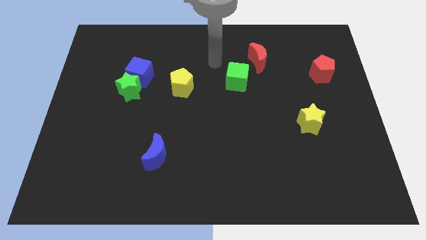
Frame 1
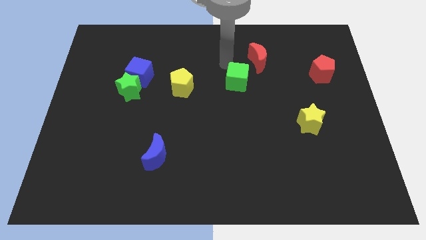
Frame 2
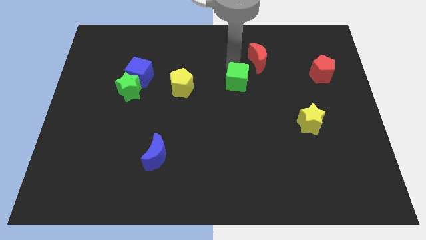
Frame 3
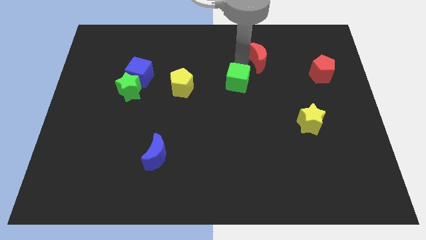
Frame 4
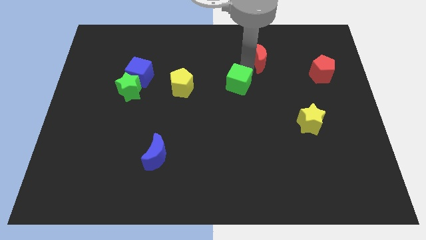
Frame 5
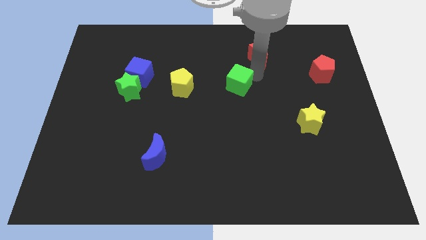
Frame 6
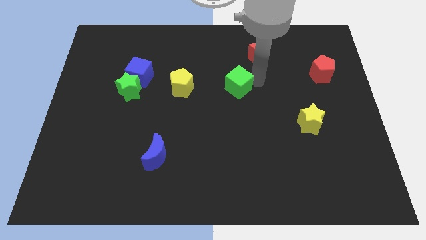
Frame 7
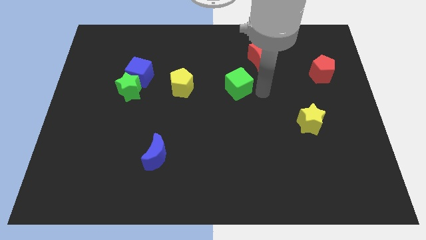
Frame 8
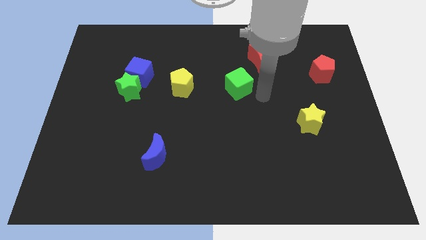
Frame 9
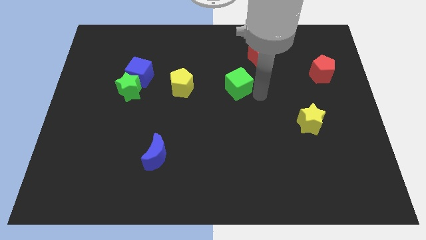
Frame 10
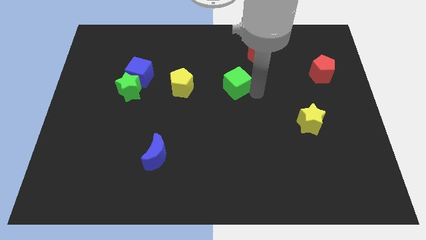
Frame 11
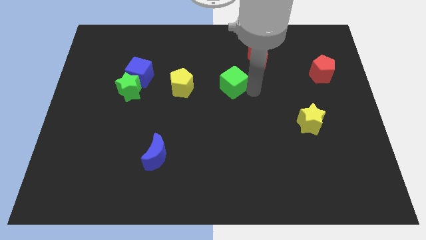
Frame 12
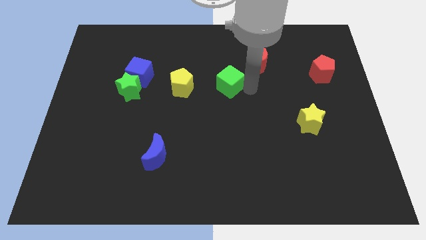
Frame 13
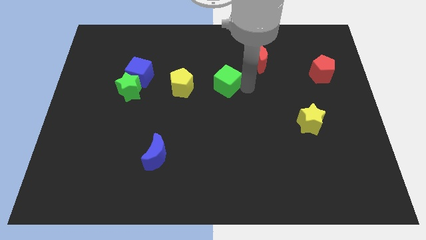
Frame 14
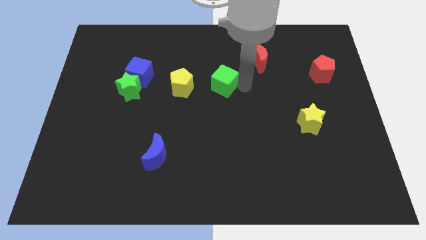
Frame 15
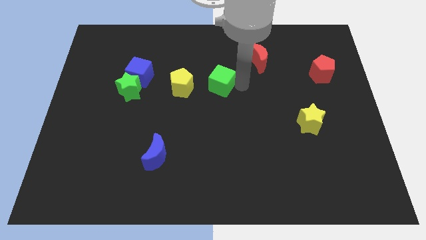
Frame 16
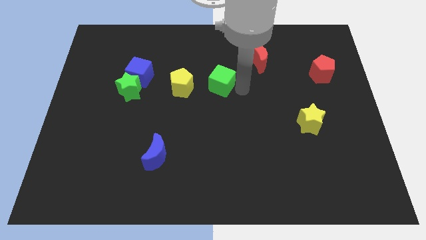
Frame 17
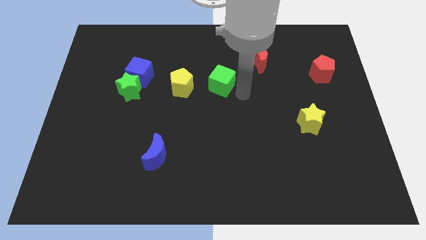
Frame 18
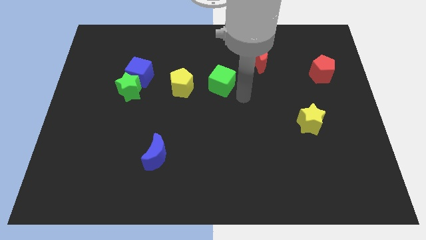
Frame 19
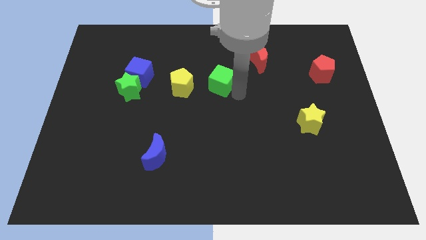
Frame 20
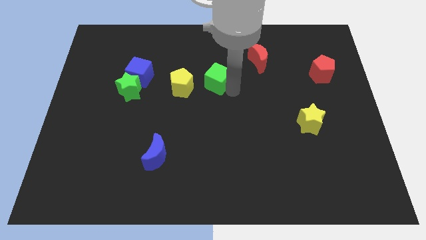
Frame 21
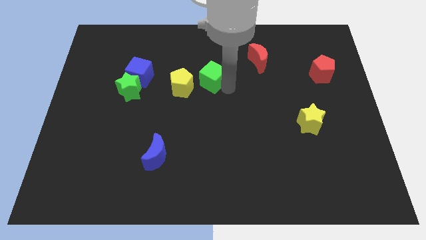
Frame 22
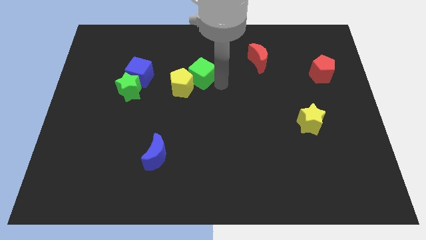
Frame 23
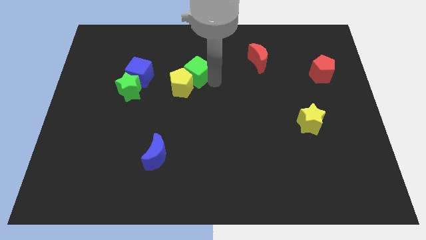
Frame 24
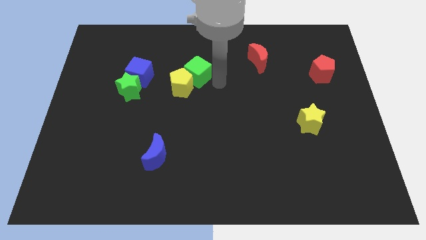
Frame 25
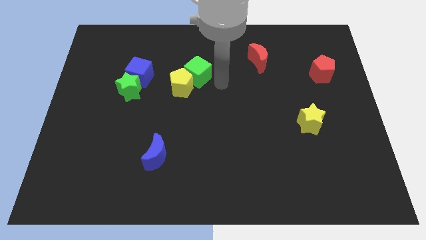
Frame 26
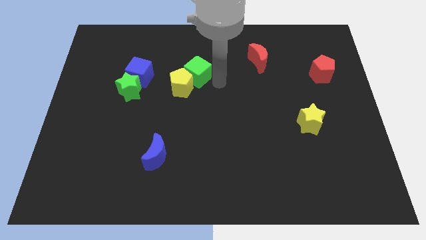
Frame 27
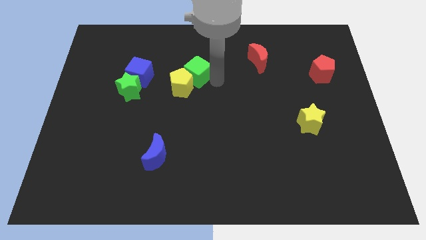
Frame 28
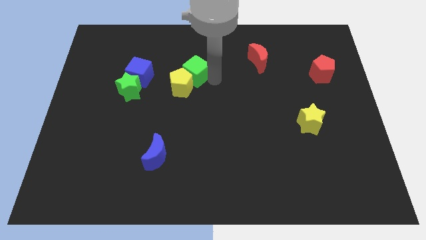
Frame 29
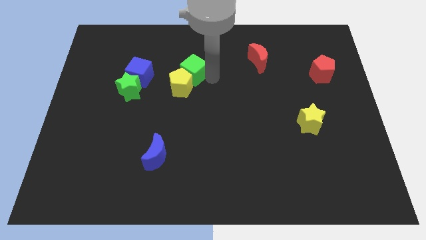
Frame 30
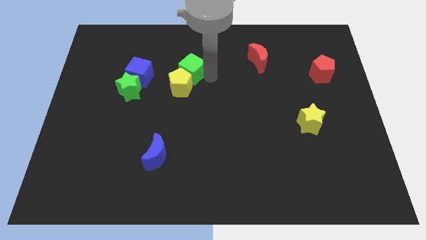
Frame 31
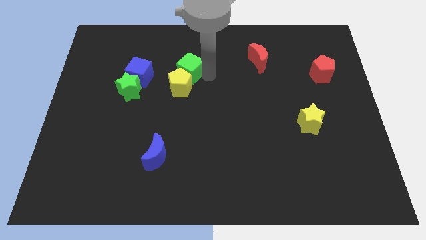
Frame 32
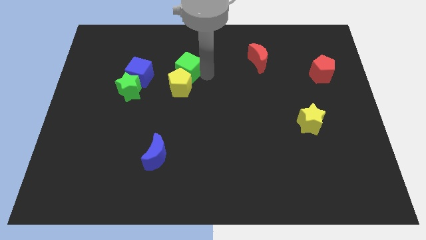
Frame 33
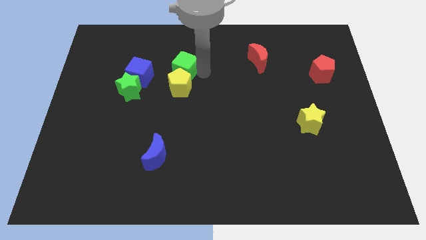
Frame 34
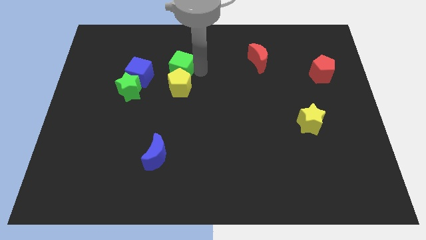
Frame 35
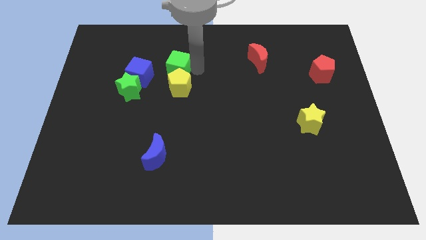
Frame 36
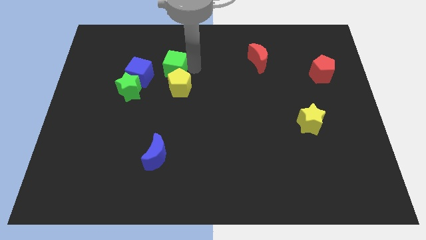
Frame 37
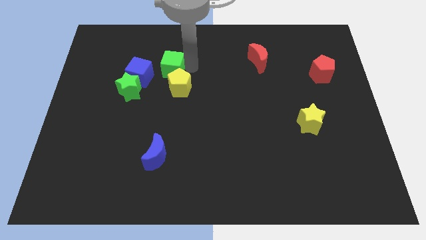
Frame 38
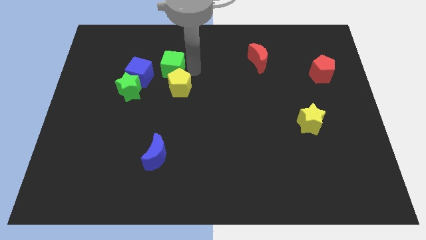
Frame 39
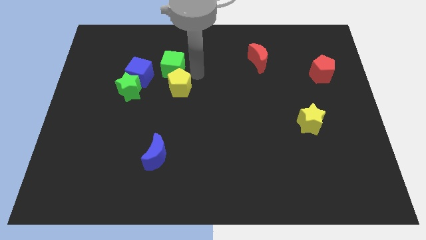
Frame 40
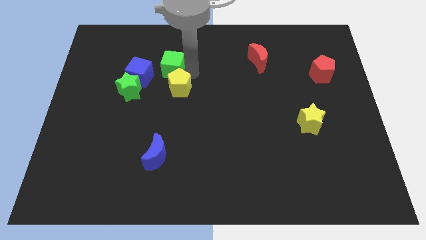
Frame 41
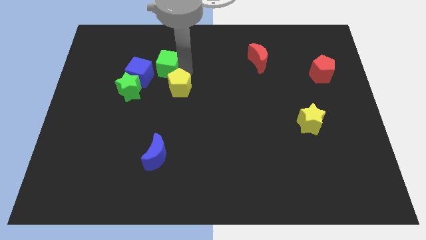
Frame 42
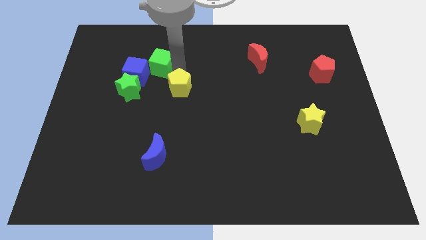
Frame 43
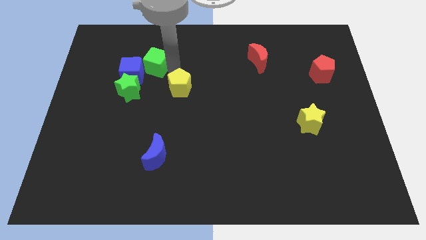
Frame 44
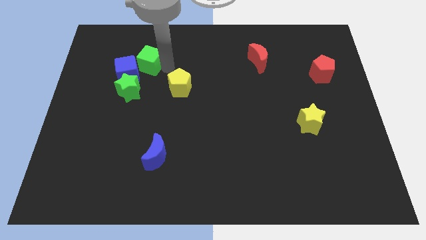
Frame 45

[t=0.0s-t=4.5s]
push the green cube to the left

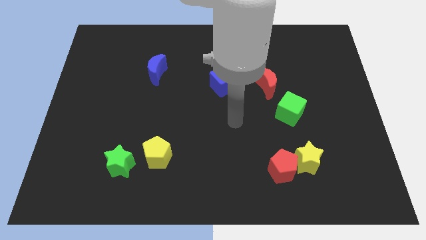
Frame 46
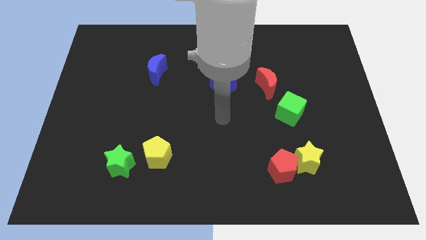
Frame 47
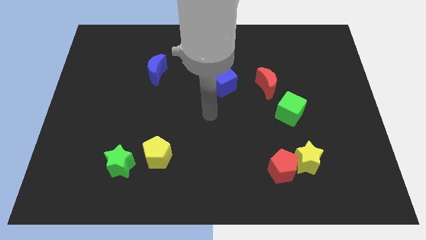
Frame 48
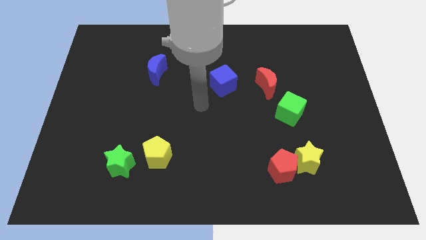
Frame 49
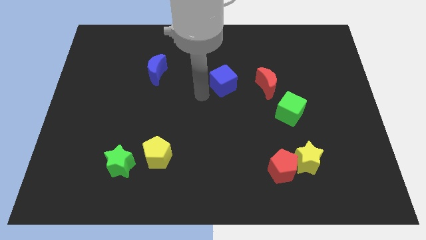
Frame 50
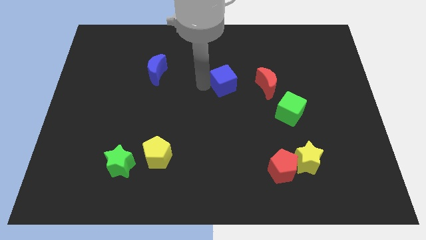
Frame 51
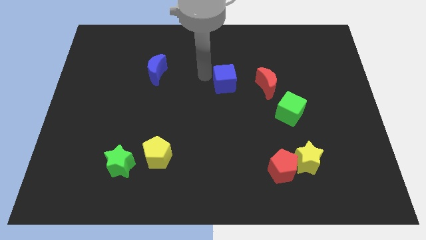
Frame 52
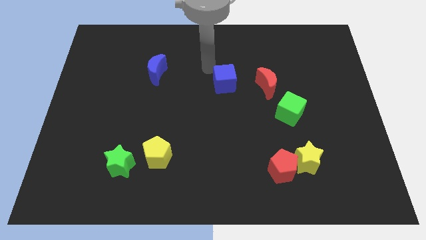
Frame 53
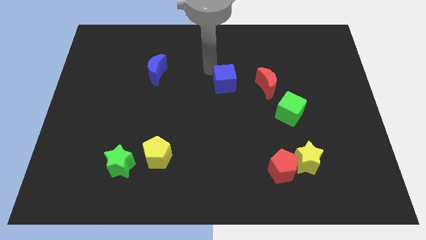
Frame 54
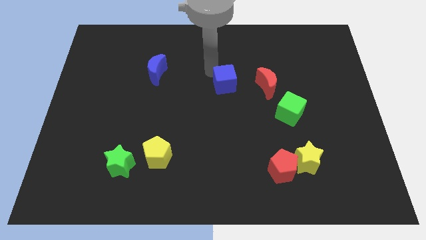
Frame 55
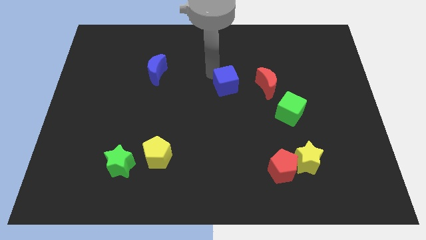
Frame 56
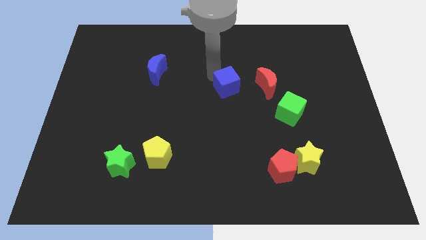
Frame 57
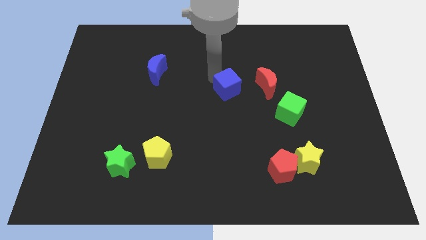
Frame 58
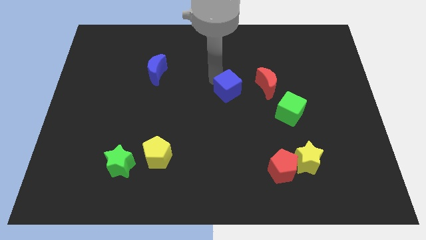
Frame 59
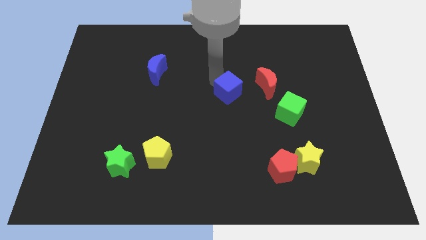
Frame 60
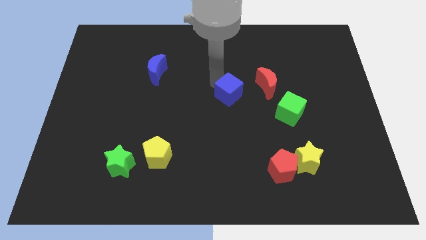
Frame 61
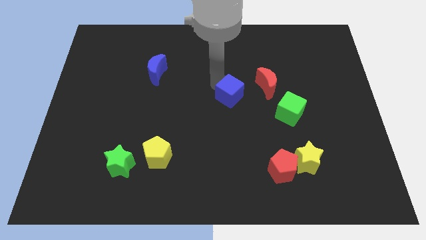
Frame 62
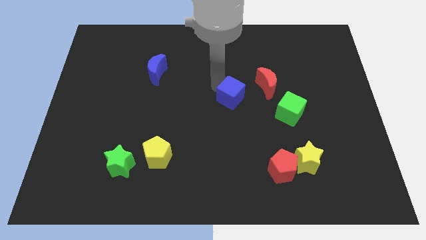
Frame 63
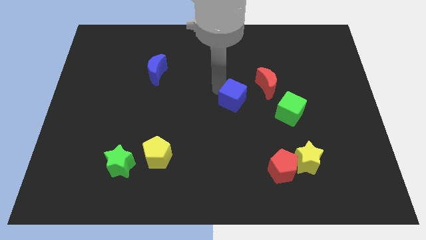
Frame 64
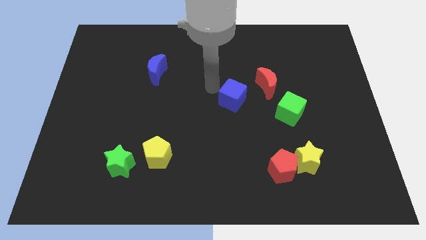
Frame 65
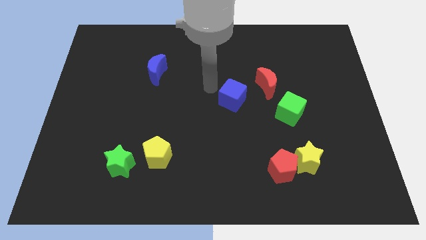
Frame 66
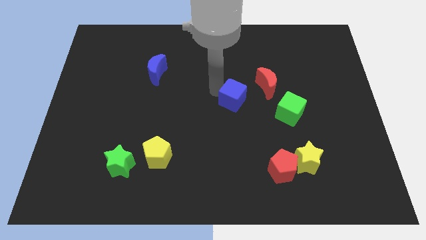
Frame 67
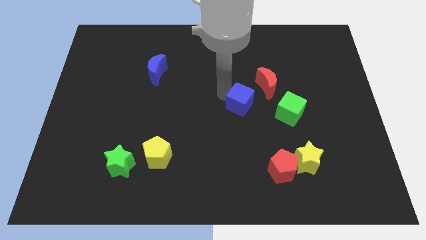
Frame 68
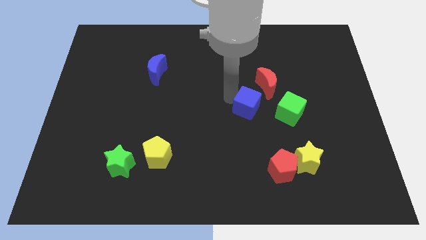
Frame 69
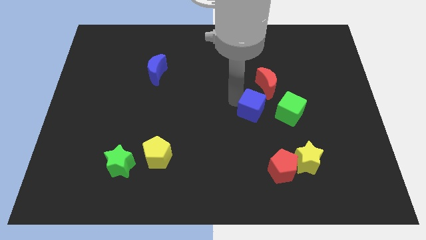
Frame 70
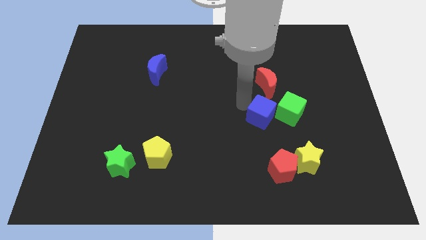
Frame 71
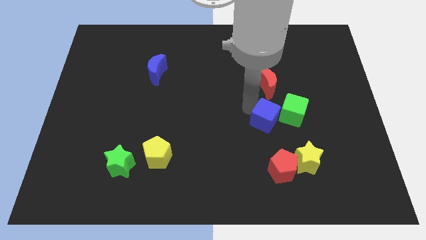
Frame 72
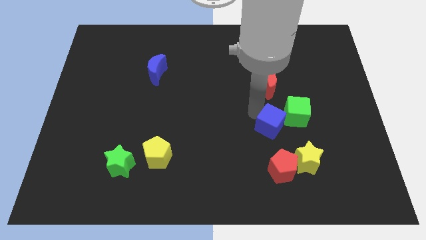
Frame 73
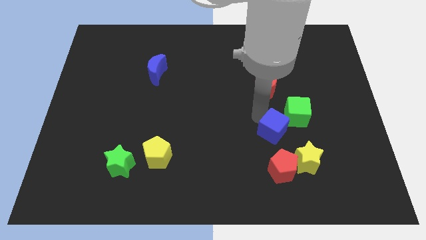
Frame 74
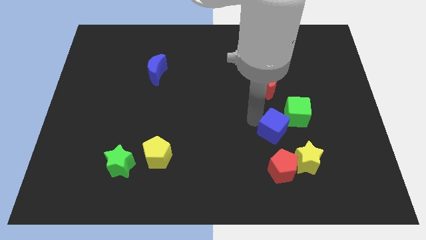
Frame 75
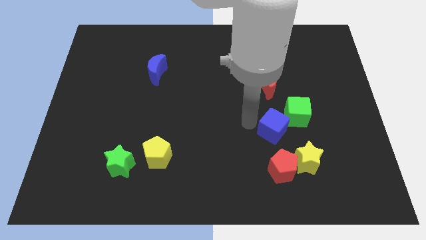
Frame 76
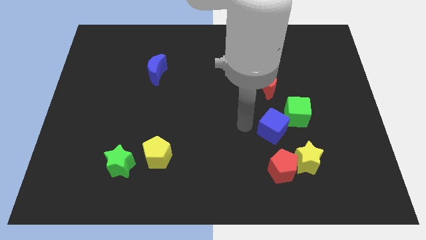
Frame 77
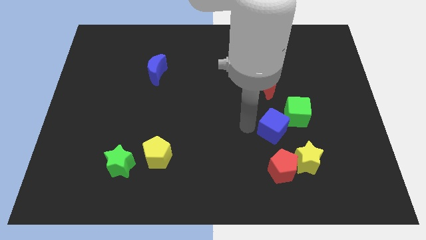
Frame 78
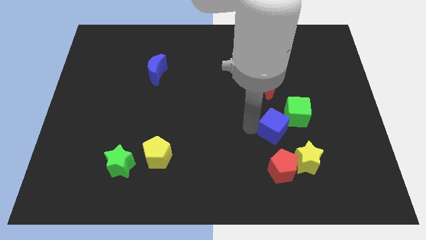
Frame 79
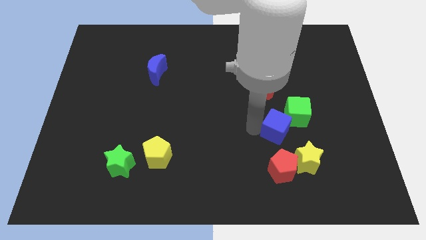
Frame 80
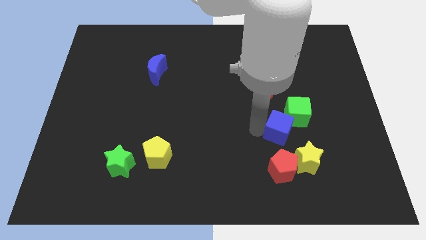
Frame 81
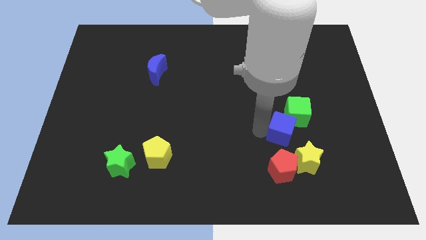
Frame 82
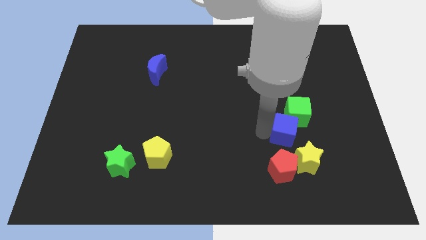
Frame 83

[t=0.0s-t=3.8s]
slide the blue cube downwards and then to the right
